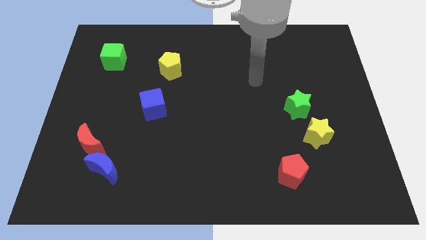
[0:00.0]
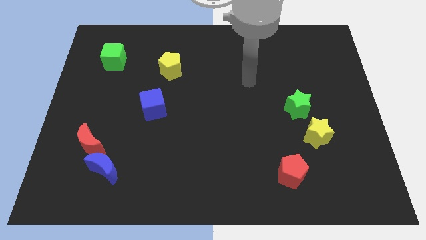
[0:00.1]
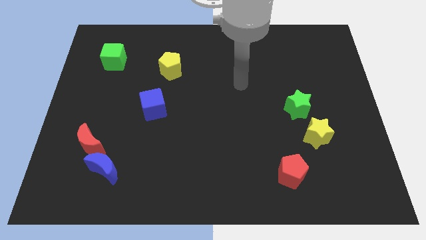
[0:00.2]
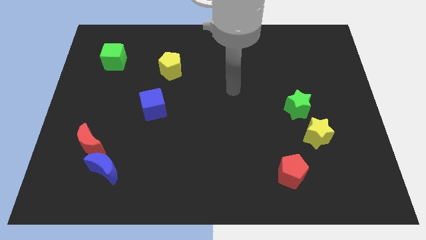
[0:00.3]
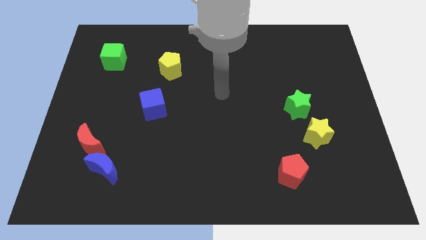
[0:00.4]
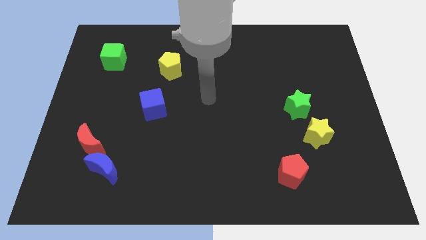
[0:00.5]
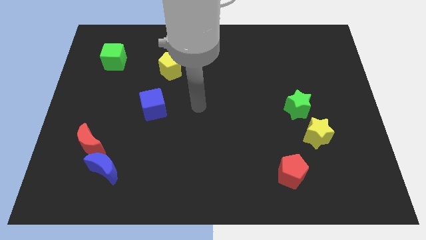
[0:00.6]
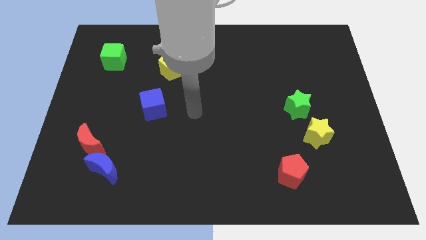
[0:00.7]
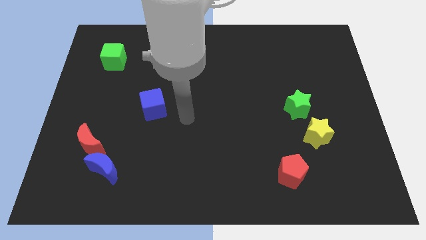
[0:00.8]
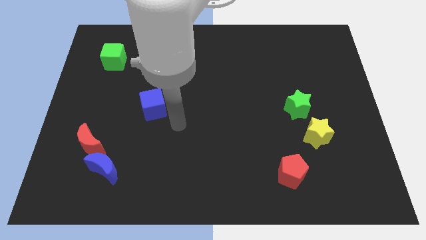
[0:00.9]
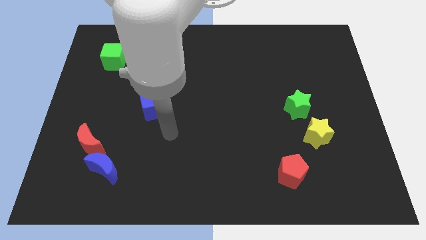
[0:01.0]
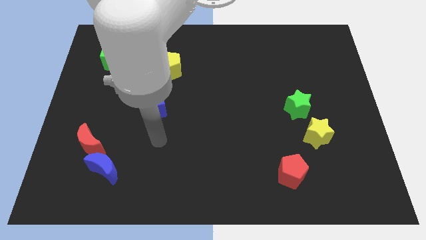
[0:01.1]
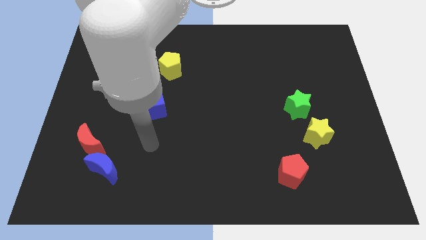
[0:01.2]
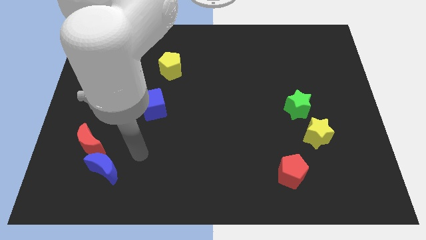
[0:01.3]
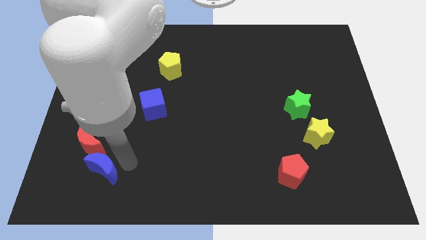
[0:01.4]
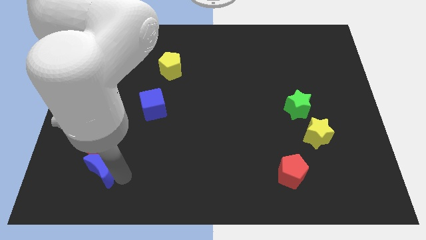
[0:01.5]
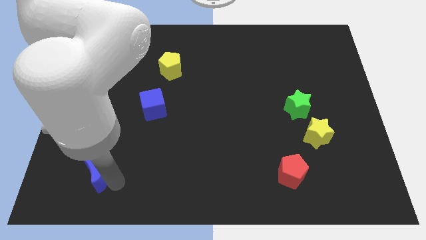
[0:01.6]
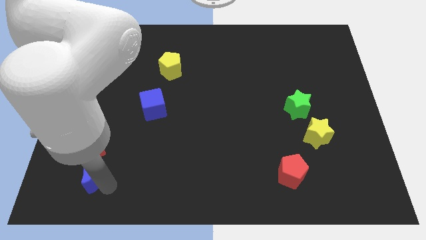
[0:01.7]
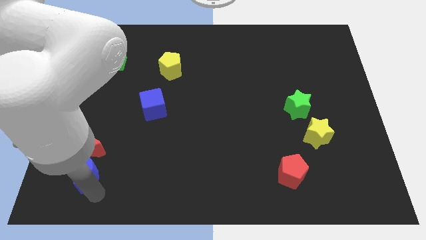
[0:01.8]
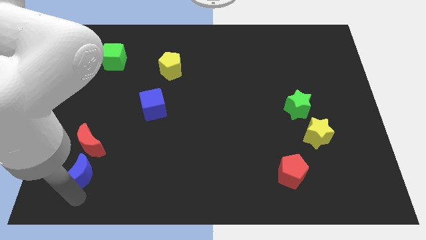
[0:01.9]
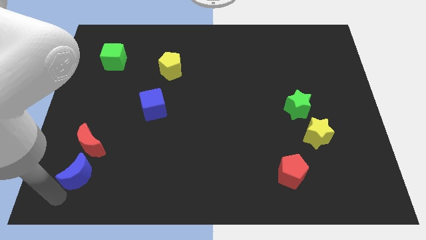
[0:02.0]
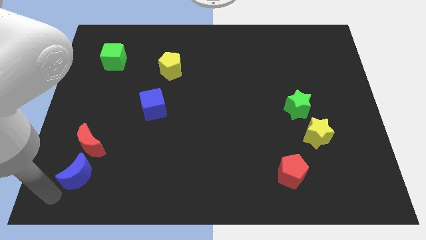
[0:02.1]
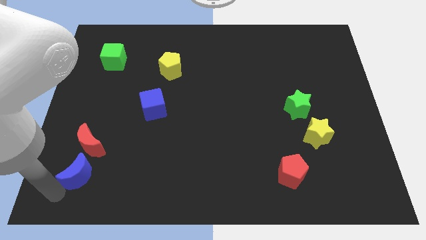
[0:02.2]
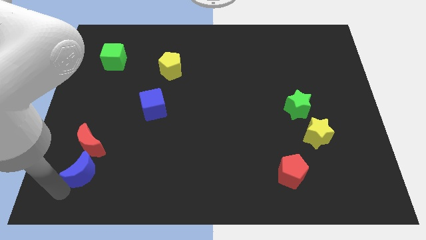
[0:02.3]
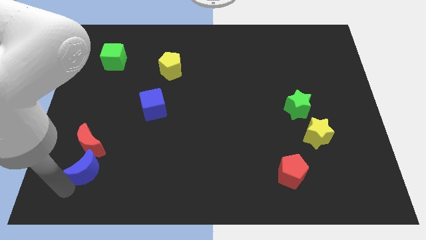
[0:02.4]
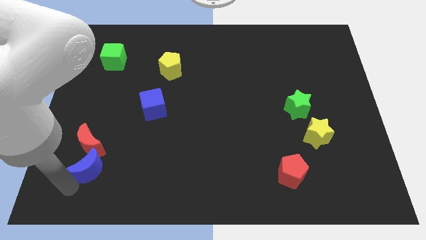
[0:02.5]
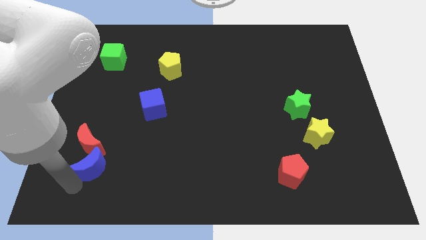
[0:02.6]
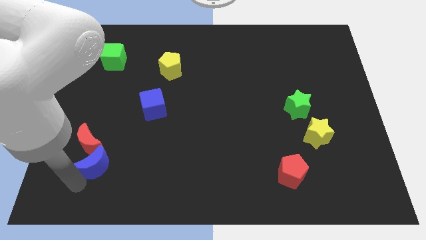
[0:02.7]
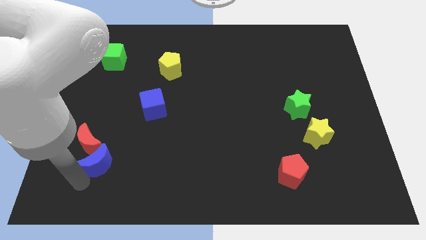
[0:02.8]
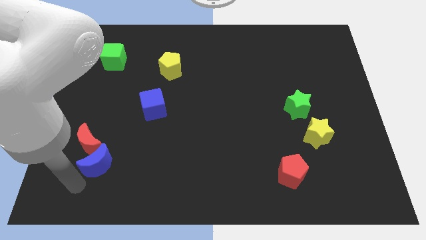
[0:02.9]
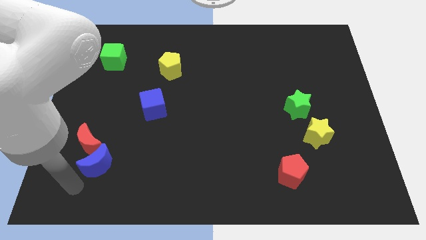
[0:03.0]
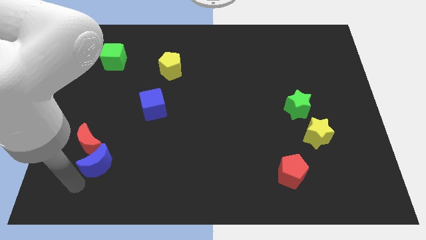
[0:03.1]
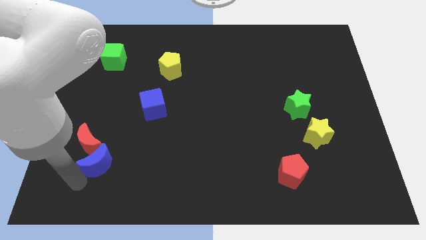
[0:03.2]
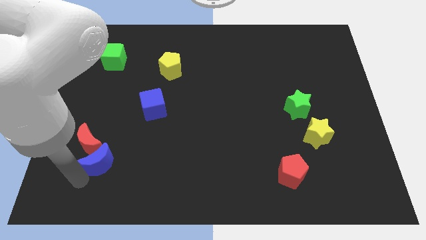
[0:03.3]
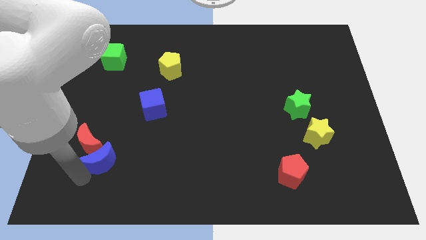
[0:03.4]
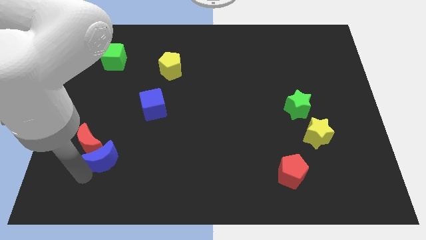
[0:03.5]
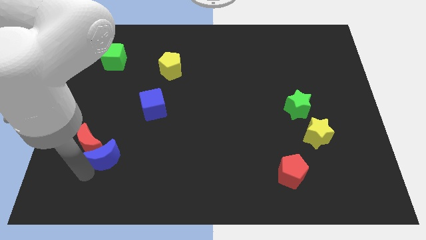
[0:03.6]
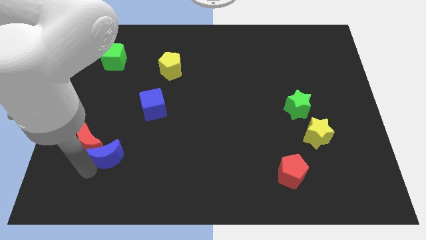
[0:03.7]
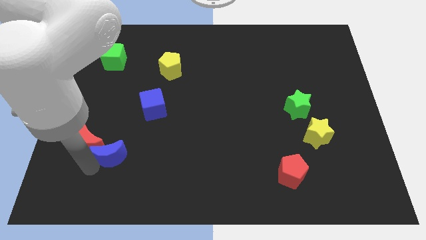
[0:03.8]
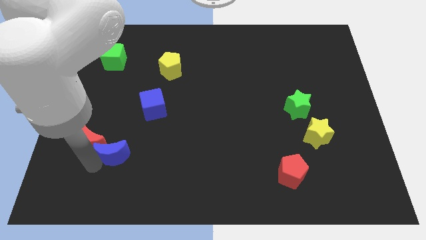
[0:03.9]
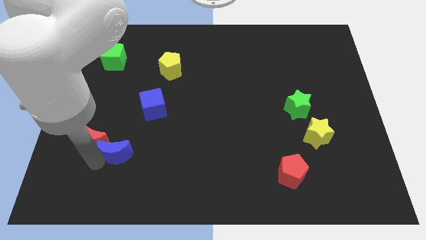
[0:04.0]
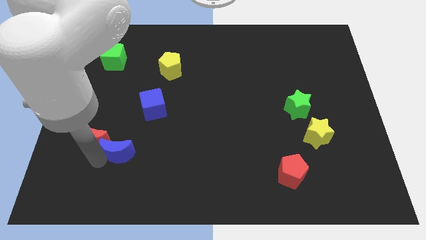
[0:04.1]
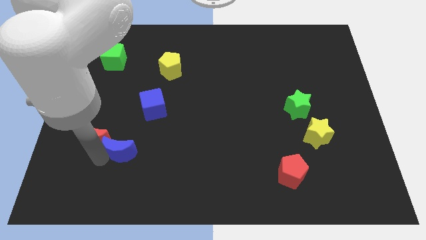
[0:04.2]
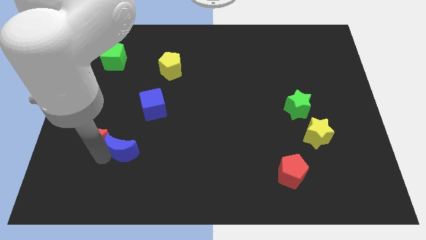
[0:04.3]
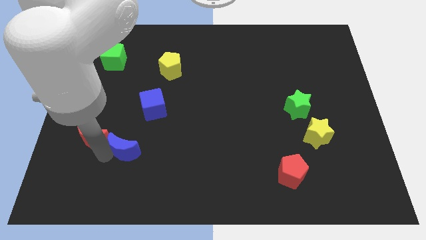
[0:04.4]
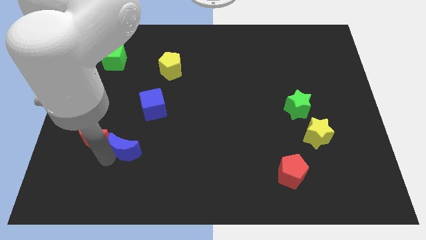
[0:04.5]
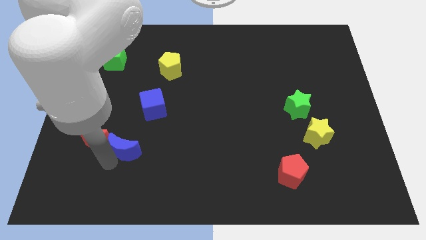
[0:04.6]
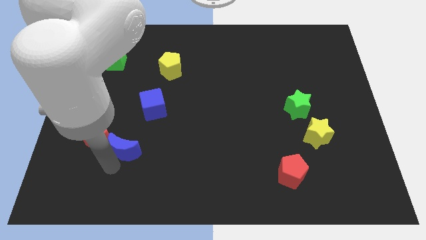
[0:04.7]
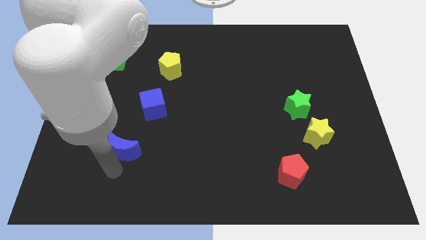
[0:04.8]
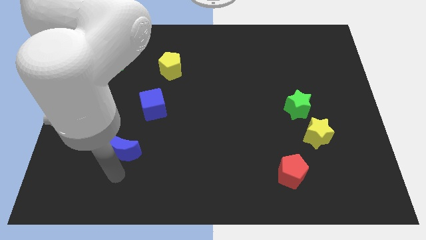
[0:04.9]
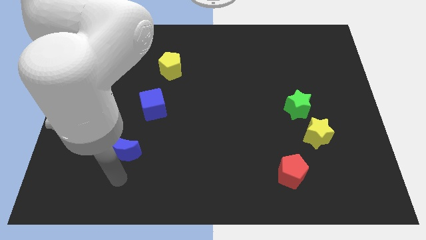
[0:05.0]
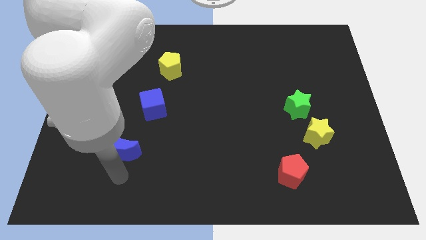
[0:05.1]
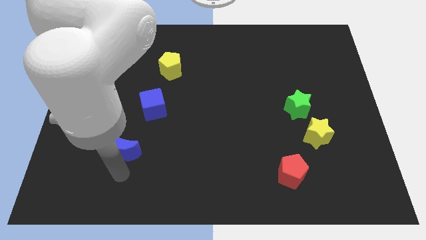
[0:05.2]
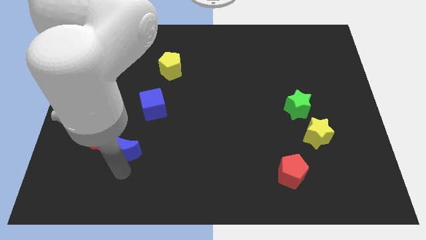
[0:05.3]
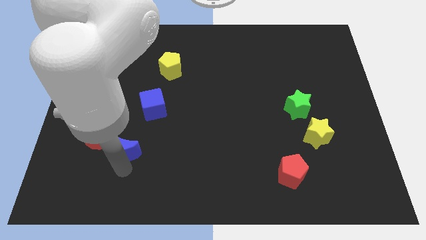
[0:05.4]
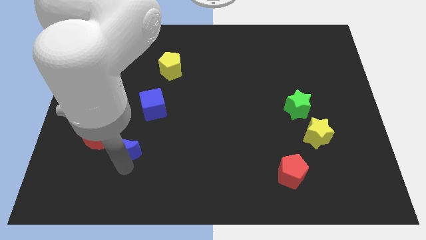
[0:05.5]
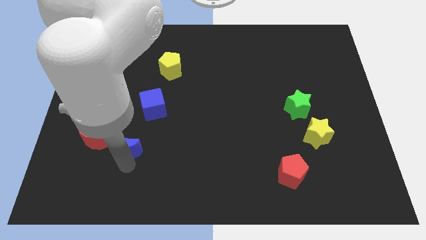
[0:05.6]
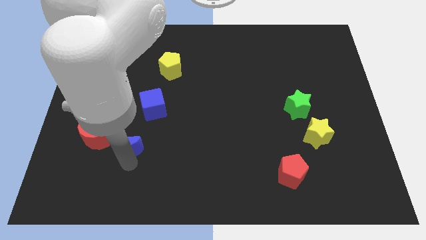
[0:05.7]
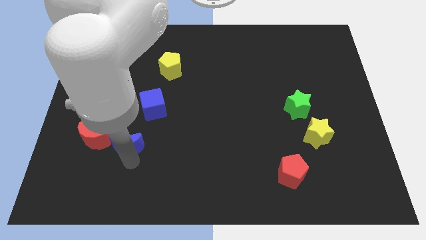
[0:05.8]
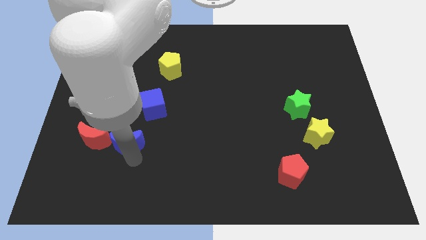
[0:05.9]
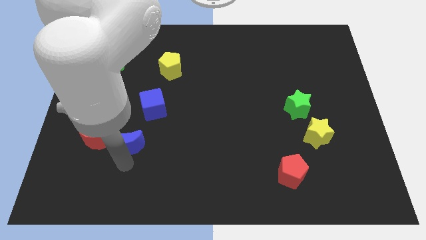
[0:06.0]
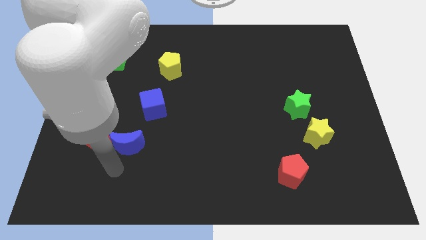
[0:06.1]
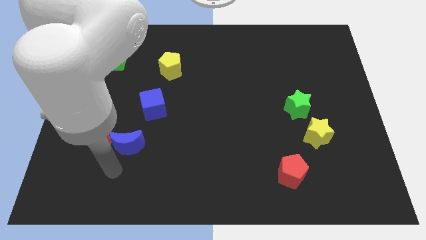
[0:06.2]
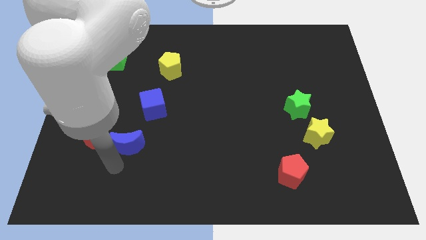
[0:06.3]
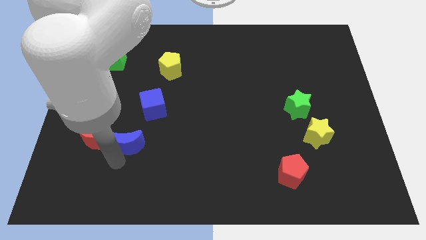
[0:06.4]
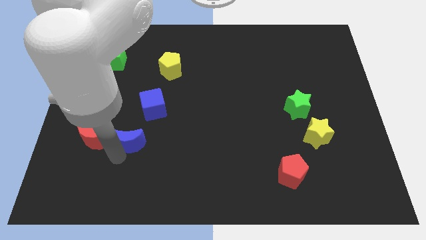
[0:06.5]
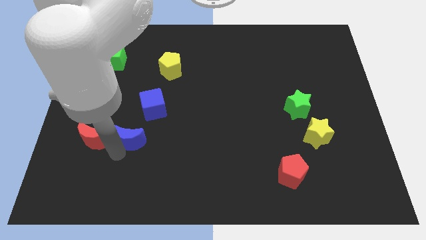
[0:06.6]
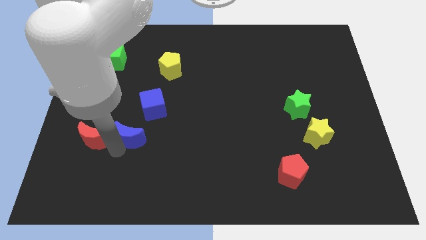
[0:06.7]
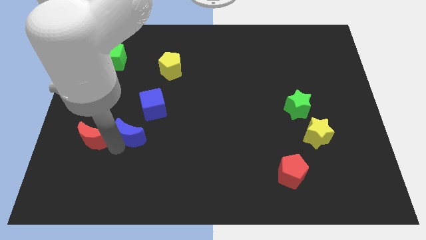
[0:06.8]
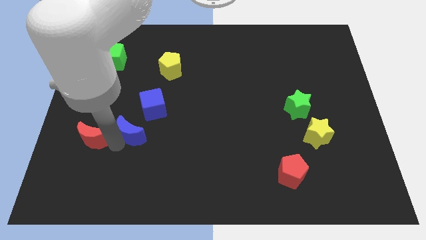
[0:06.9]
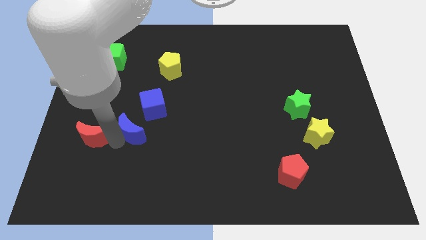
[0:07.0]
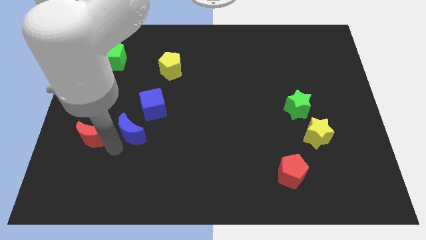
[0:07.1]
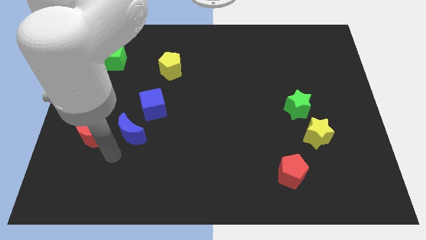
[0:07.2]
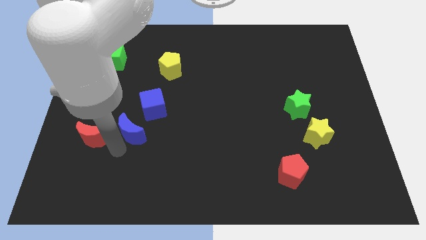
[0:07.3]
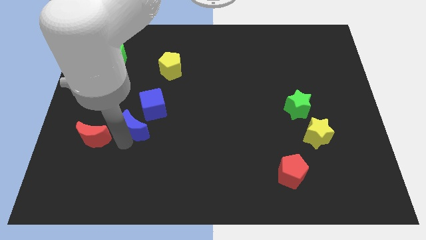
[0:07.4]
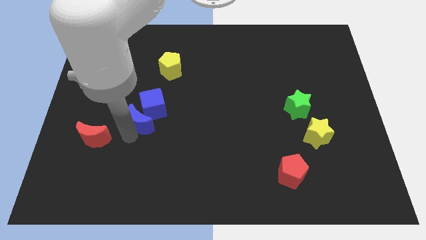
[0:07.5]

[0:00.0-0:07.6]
slide the blue moon to the blue cube
